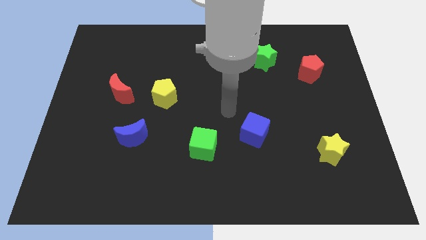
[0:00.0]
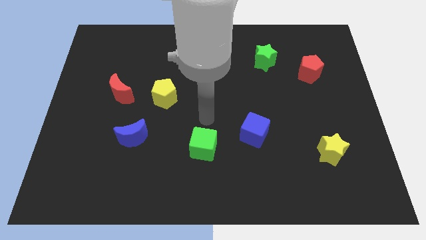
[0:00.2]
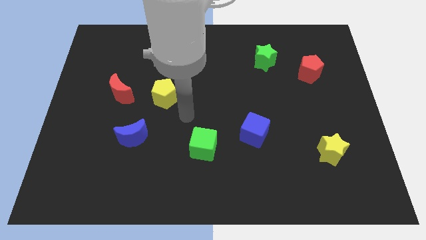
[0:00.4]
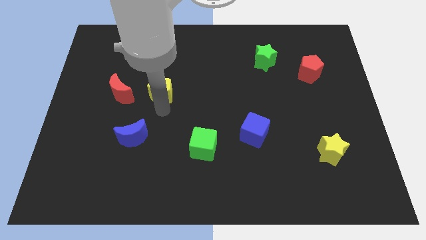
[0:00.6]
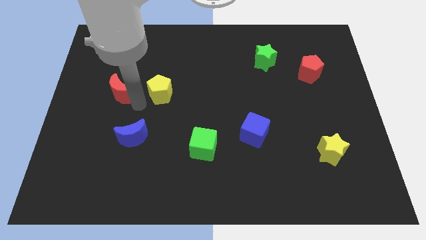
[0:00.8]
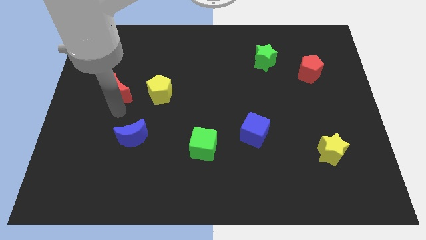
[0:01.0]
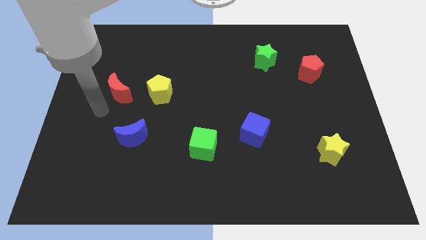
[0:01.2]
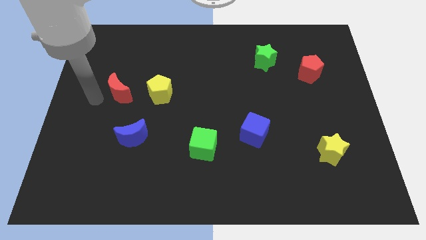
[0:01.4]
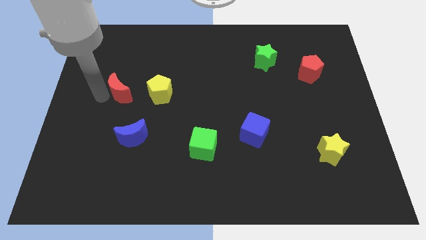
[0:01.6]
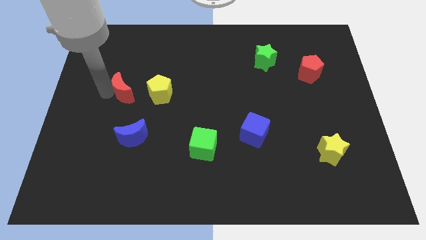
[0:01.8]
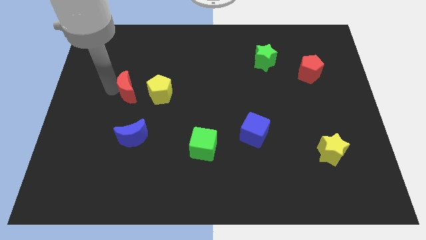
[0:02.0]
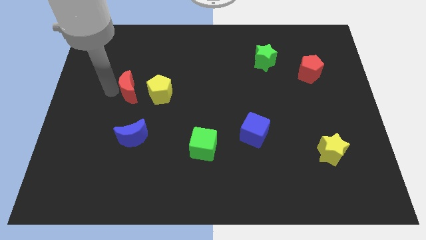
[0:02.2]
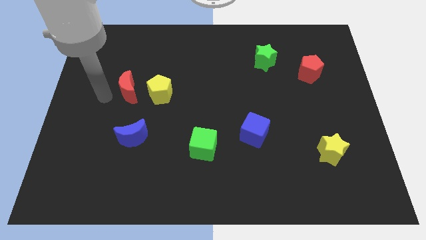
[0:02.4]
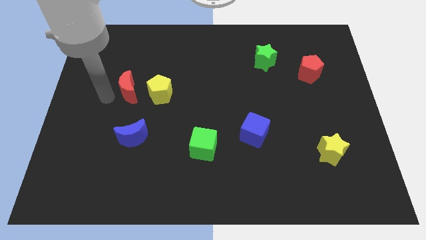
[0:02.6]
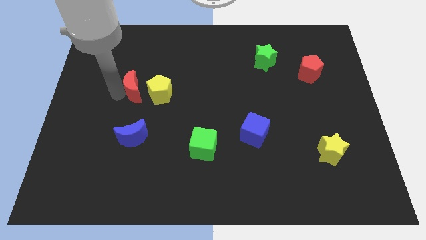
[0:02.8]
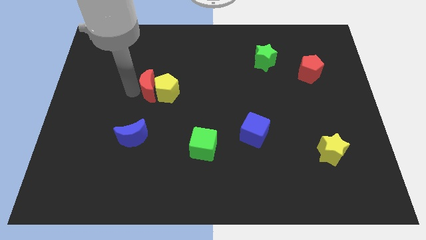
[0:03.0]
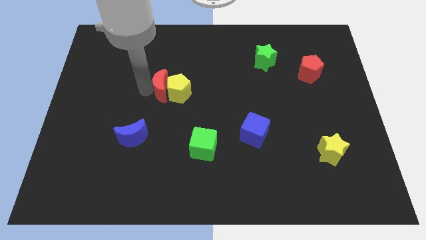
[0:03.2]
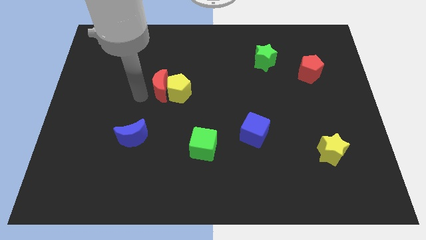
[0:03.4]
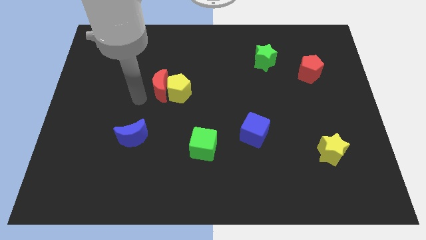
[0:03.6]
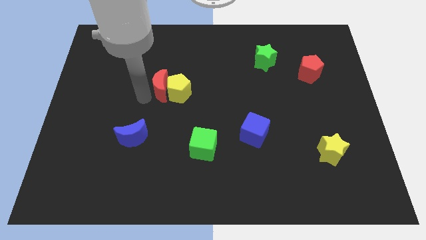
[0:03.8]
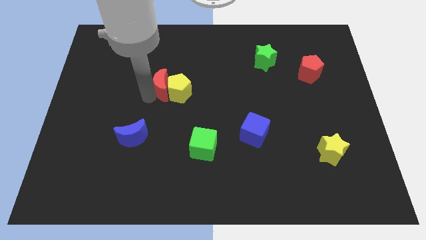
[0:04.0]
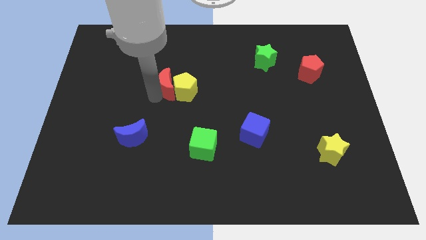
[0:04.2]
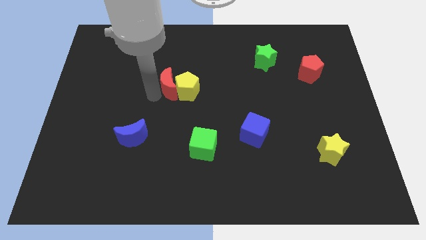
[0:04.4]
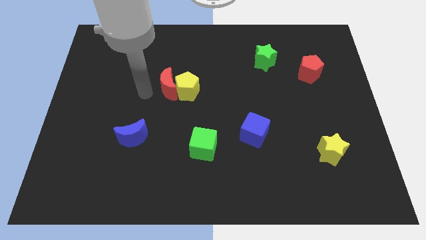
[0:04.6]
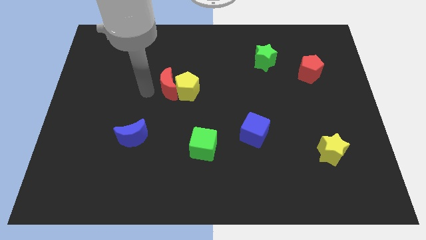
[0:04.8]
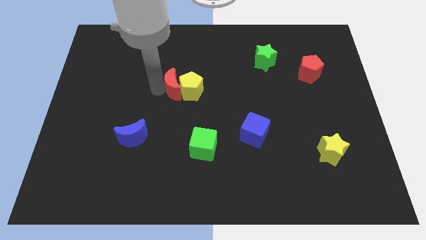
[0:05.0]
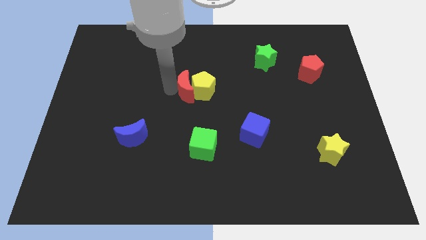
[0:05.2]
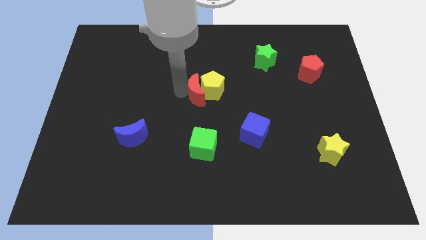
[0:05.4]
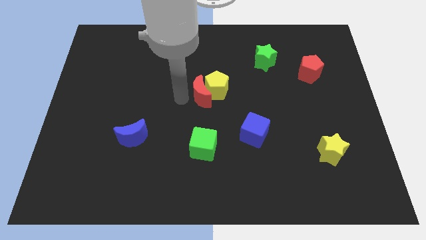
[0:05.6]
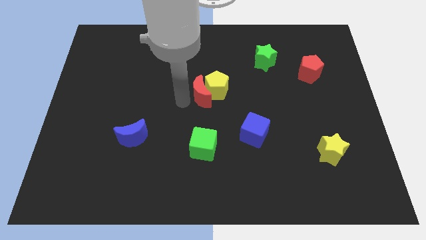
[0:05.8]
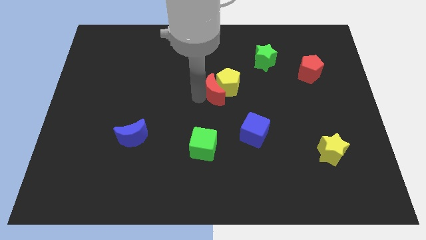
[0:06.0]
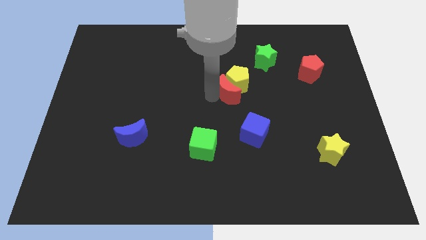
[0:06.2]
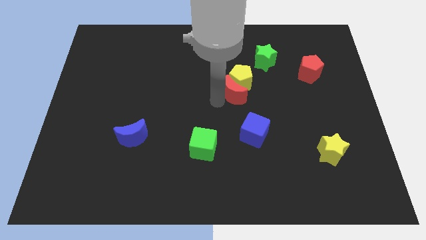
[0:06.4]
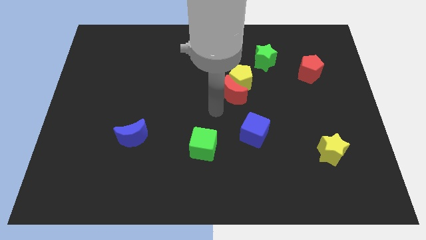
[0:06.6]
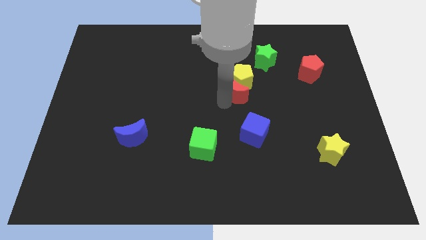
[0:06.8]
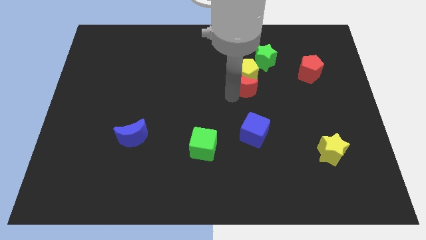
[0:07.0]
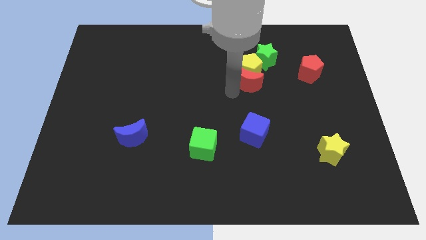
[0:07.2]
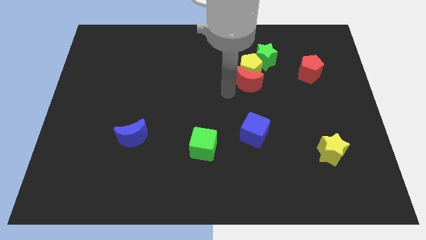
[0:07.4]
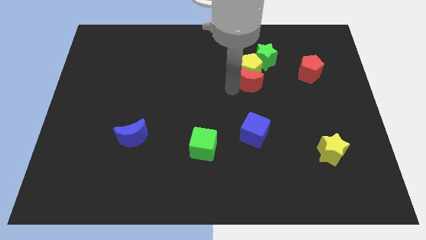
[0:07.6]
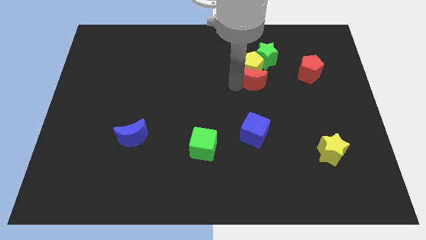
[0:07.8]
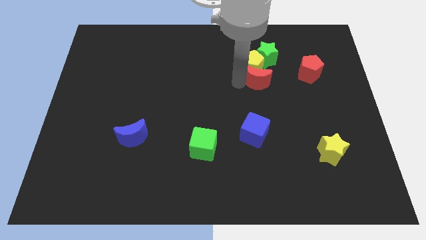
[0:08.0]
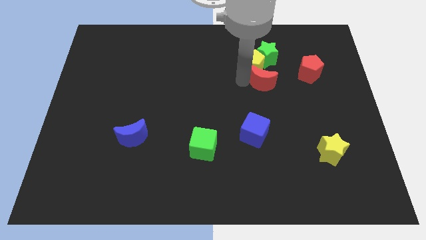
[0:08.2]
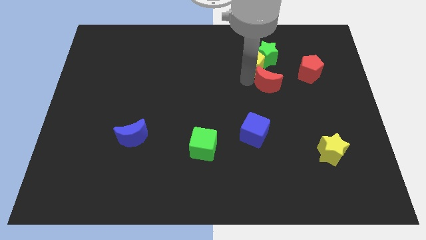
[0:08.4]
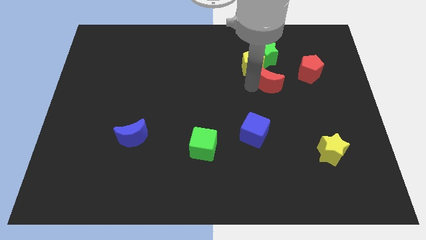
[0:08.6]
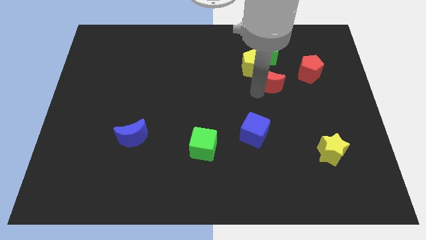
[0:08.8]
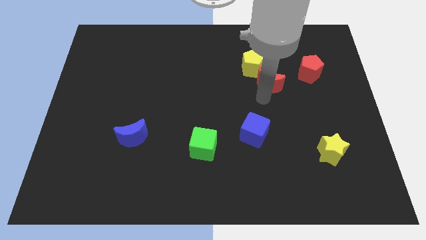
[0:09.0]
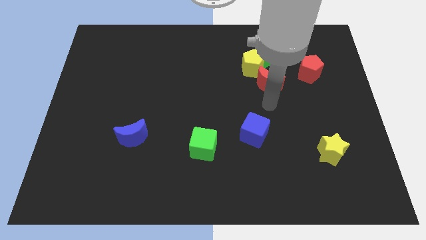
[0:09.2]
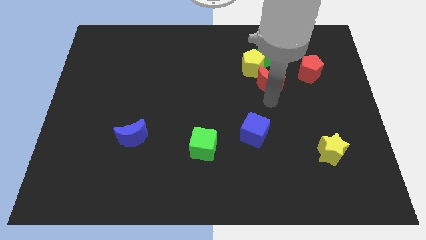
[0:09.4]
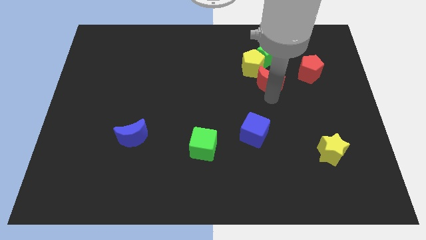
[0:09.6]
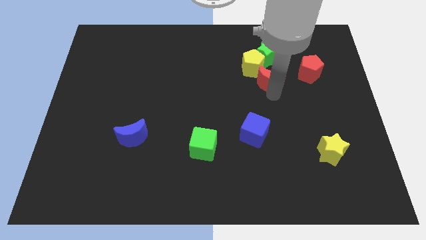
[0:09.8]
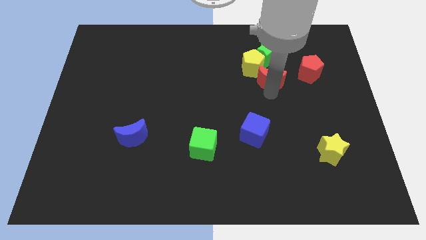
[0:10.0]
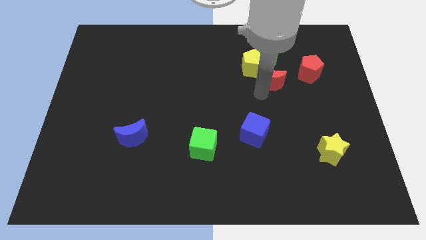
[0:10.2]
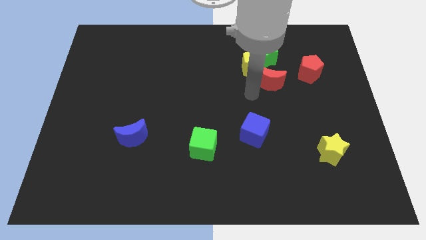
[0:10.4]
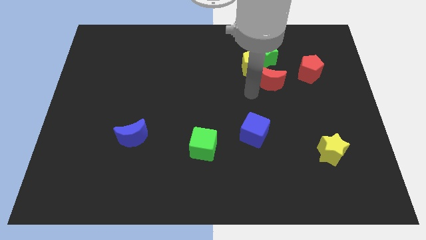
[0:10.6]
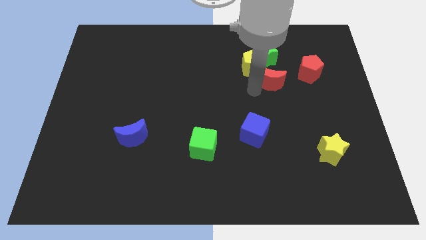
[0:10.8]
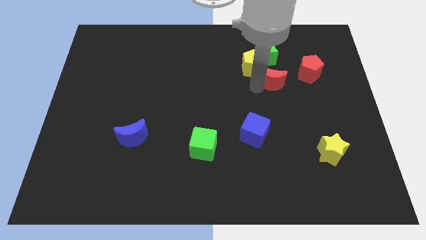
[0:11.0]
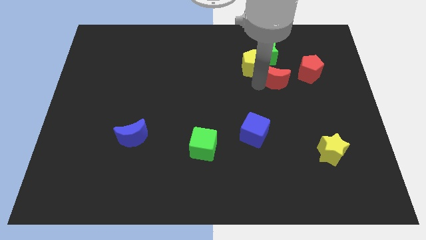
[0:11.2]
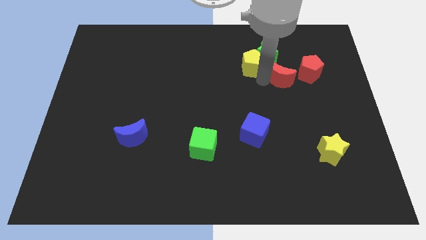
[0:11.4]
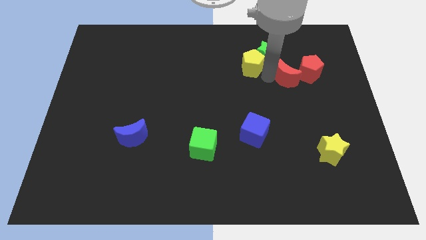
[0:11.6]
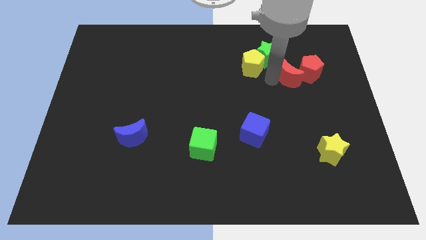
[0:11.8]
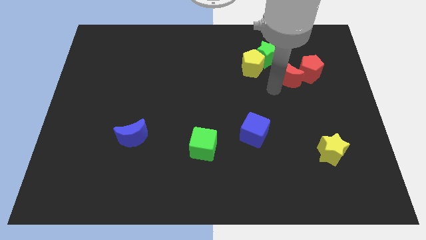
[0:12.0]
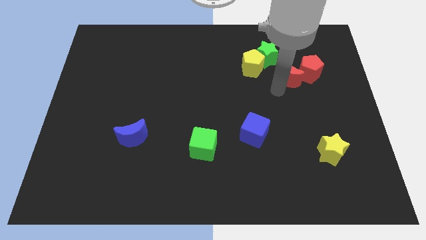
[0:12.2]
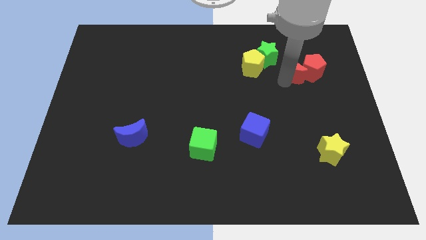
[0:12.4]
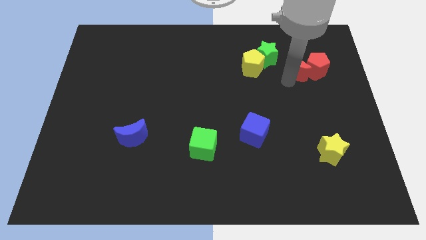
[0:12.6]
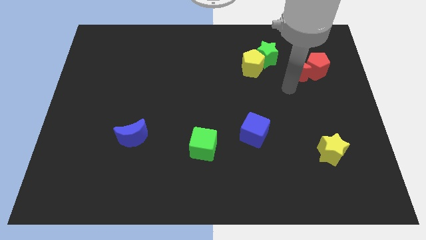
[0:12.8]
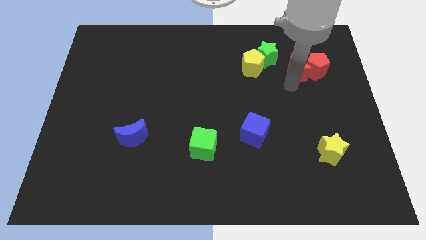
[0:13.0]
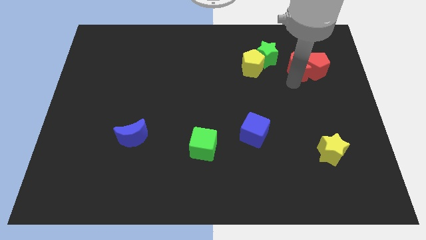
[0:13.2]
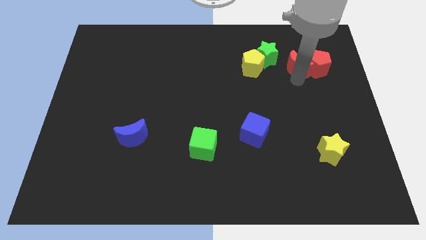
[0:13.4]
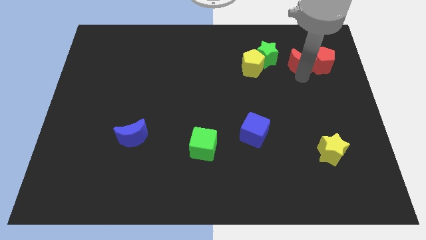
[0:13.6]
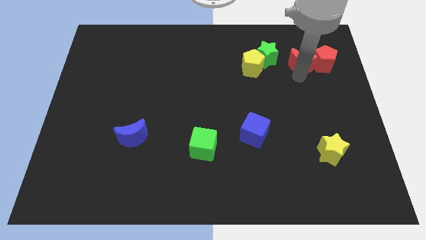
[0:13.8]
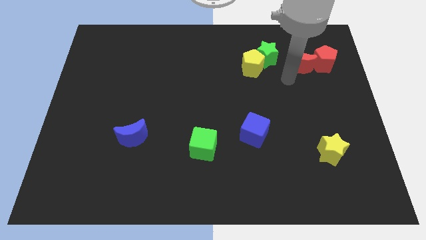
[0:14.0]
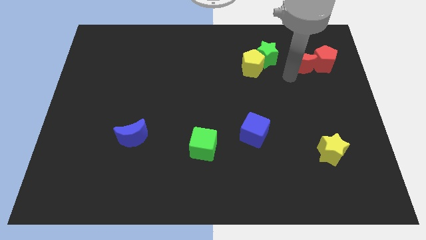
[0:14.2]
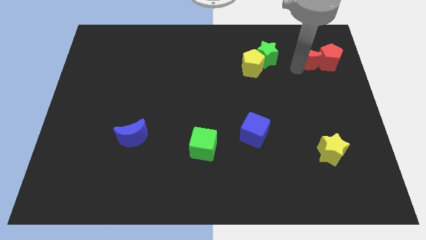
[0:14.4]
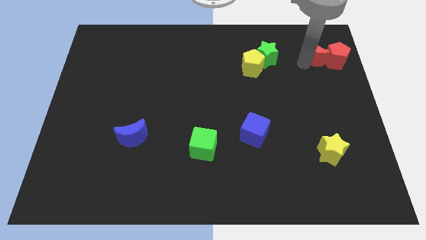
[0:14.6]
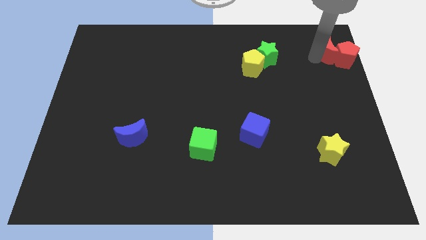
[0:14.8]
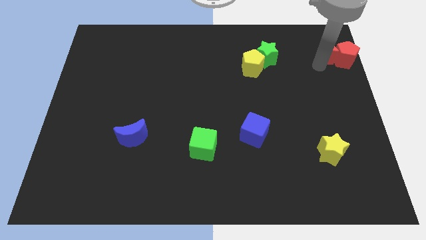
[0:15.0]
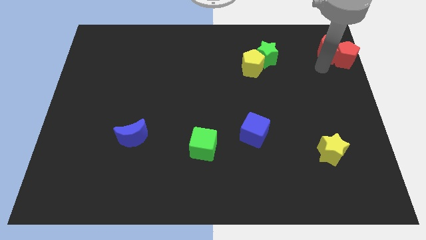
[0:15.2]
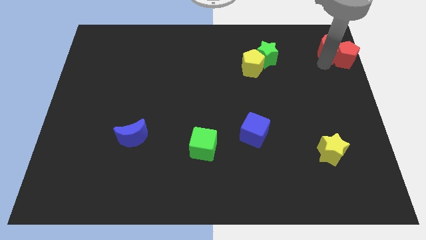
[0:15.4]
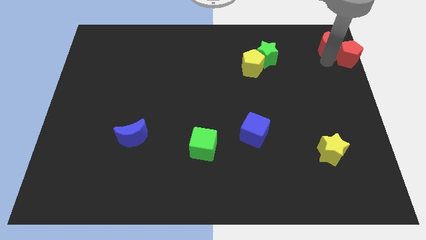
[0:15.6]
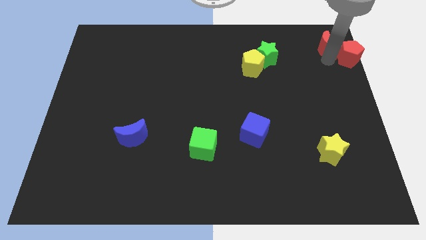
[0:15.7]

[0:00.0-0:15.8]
slide the red moon to the upper right corner
